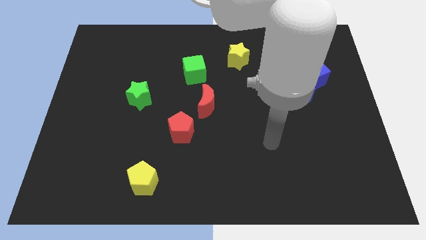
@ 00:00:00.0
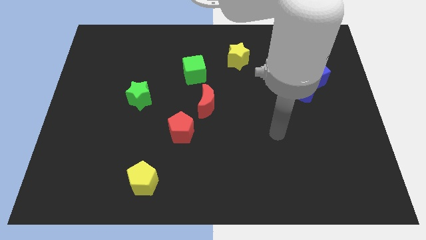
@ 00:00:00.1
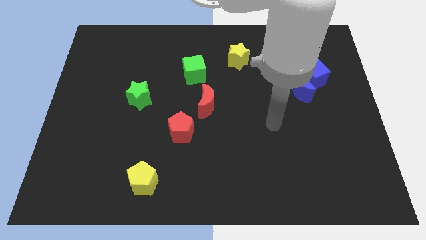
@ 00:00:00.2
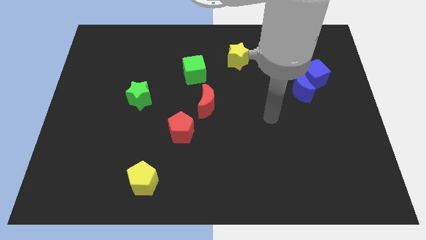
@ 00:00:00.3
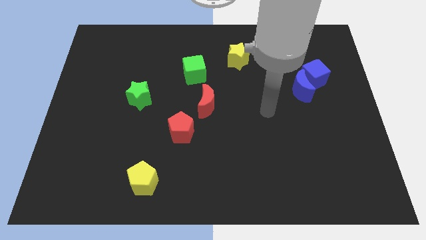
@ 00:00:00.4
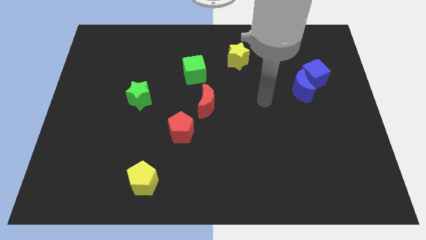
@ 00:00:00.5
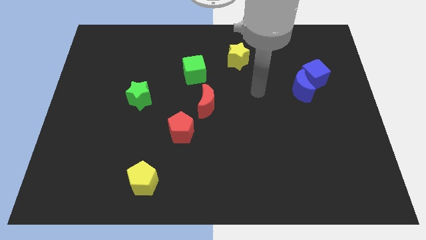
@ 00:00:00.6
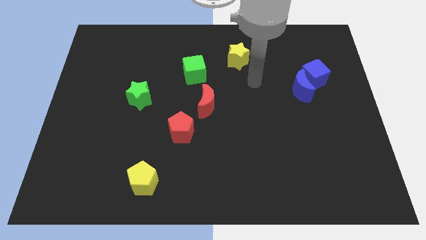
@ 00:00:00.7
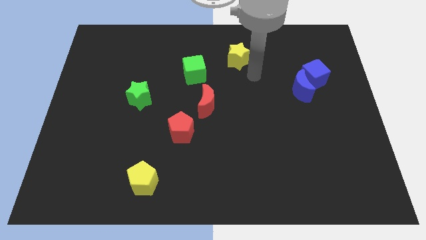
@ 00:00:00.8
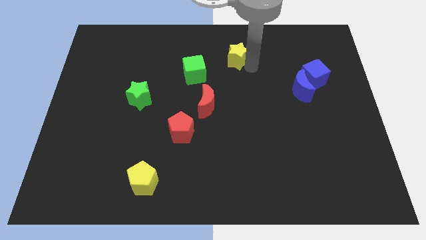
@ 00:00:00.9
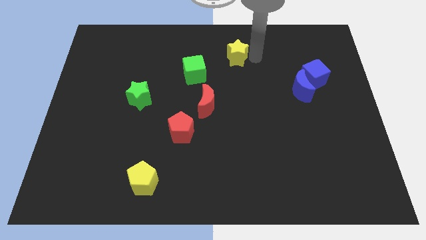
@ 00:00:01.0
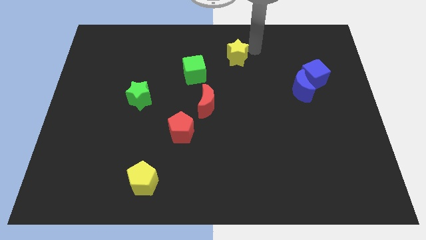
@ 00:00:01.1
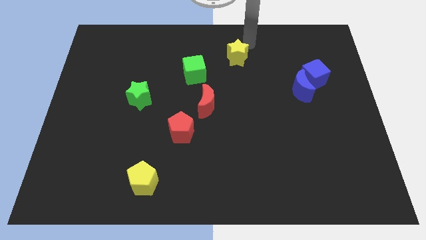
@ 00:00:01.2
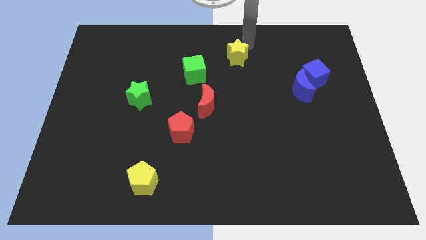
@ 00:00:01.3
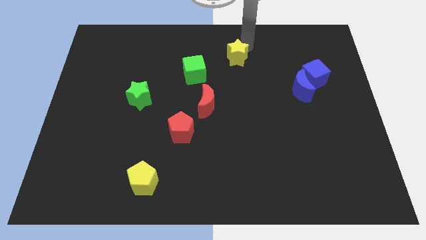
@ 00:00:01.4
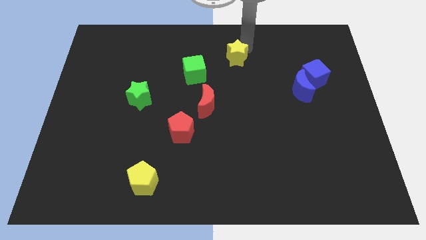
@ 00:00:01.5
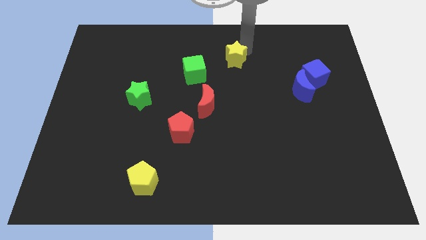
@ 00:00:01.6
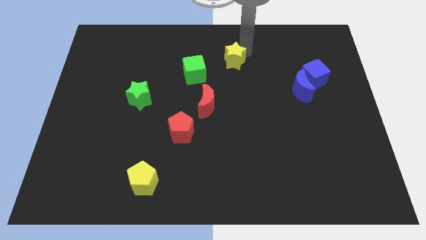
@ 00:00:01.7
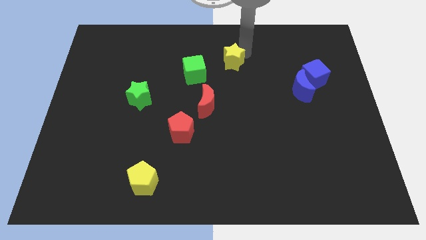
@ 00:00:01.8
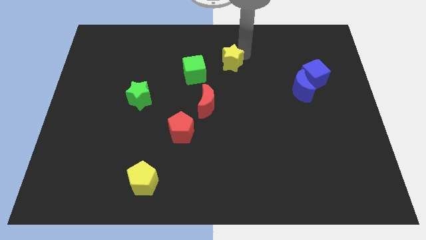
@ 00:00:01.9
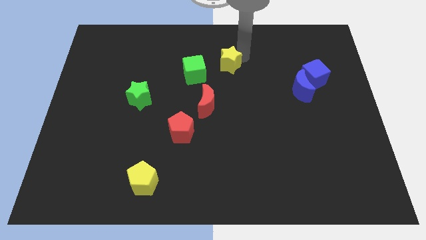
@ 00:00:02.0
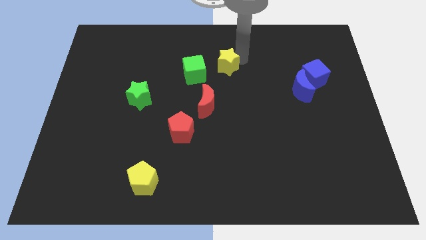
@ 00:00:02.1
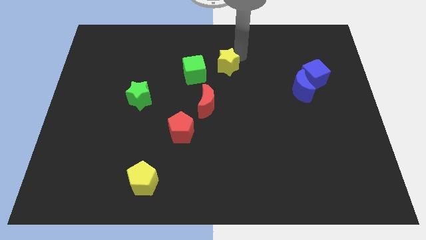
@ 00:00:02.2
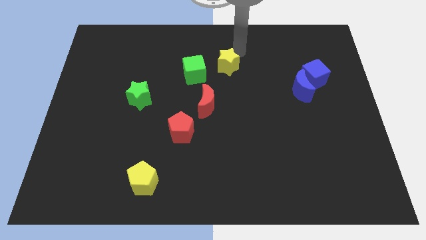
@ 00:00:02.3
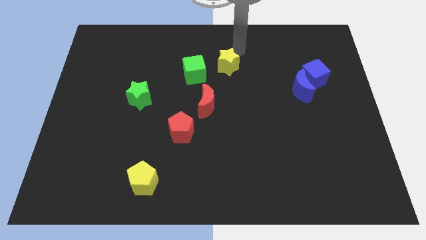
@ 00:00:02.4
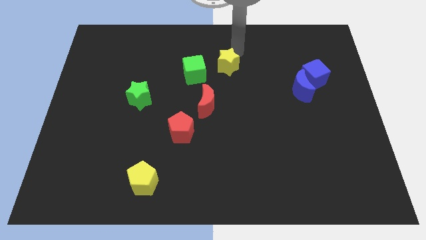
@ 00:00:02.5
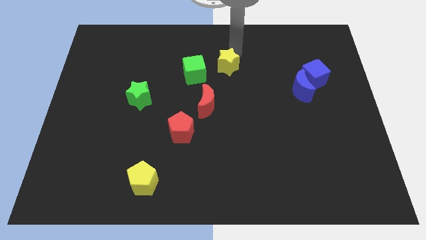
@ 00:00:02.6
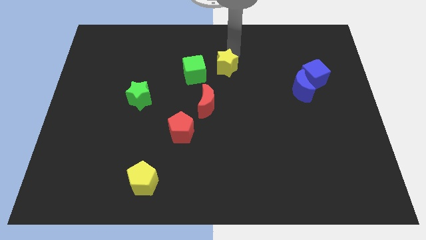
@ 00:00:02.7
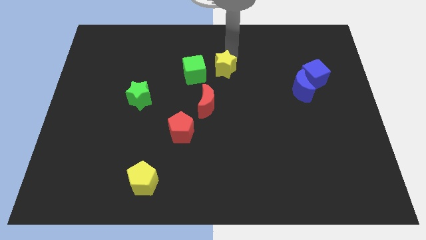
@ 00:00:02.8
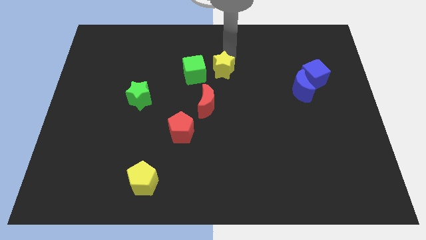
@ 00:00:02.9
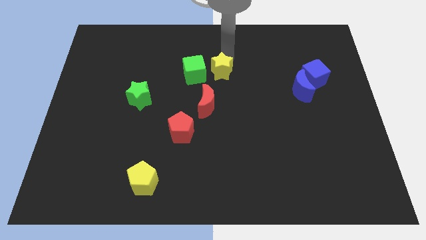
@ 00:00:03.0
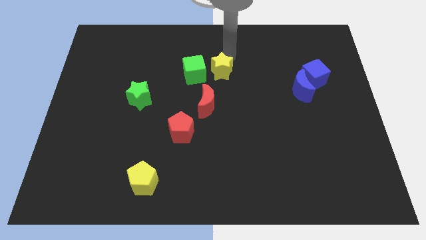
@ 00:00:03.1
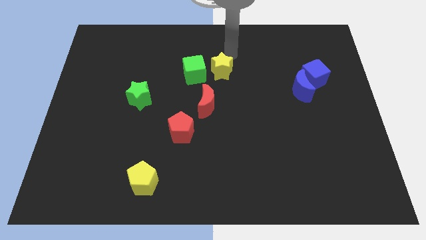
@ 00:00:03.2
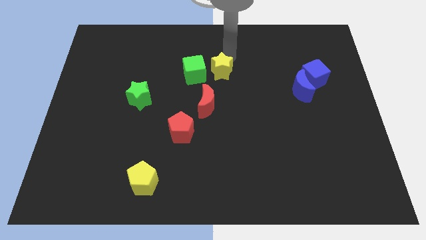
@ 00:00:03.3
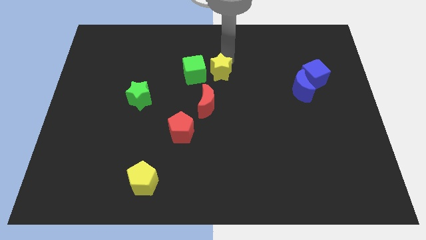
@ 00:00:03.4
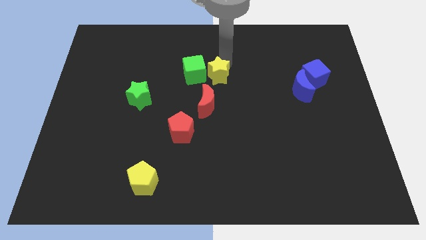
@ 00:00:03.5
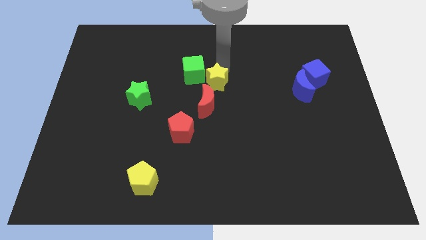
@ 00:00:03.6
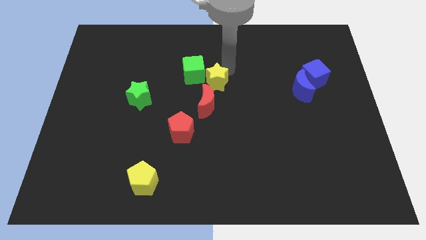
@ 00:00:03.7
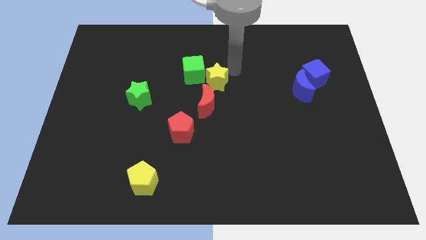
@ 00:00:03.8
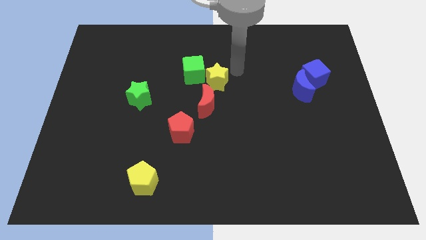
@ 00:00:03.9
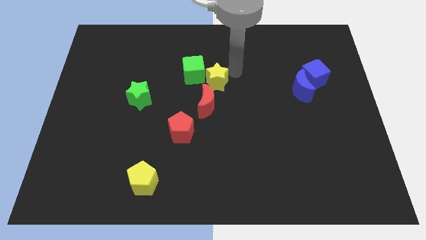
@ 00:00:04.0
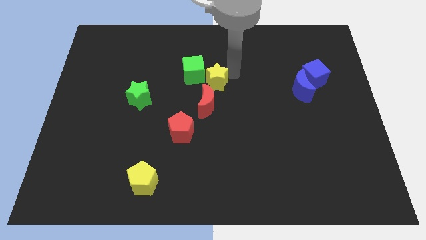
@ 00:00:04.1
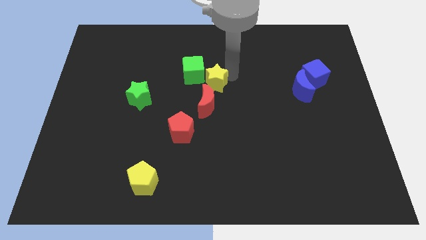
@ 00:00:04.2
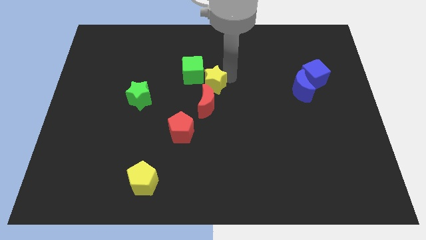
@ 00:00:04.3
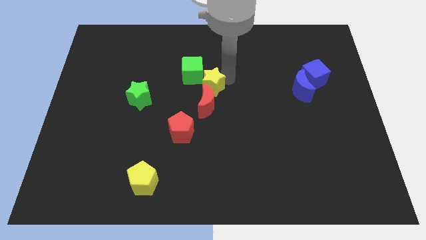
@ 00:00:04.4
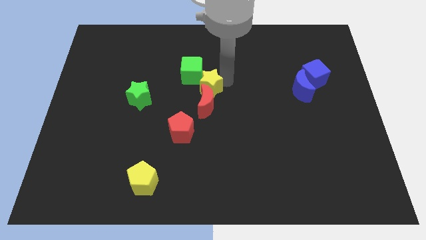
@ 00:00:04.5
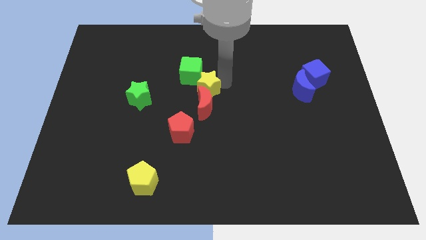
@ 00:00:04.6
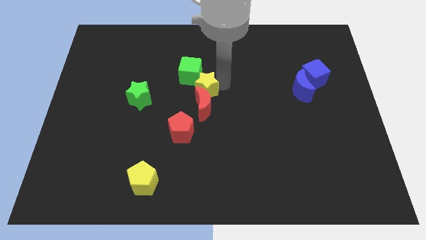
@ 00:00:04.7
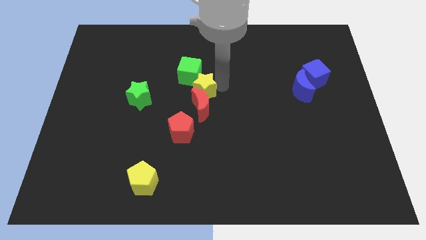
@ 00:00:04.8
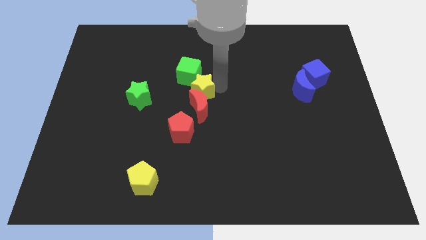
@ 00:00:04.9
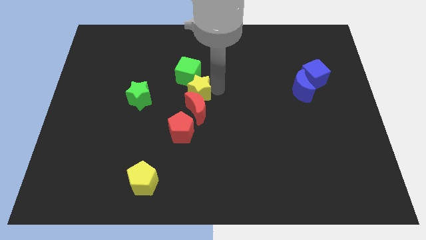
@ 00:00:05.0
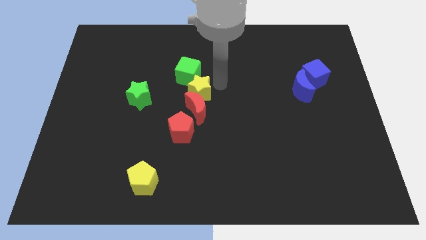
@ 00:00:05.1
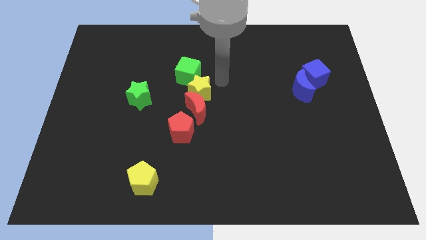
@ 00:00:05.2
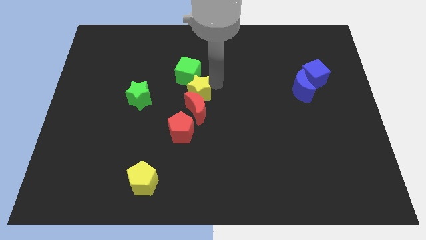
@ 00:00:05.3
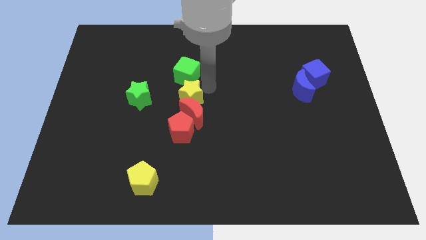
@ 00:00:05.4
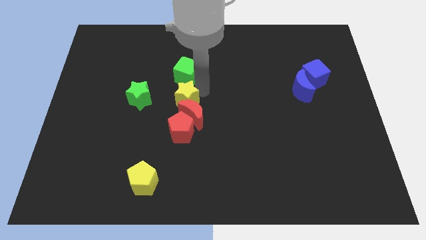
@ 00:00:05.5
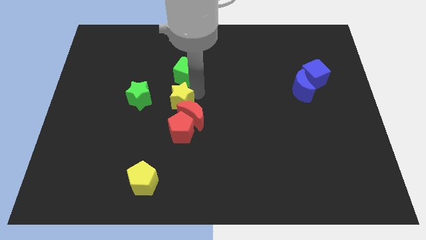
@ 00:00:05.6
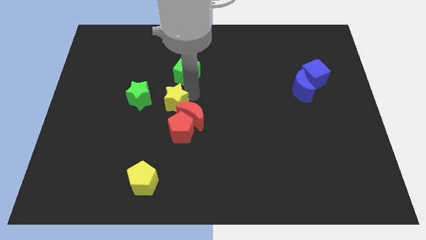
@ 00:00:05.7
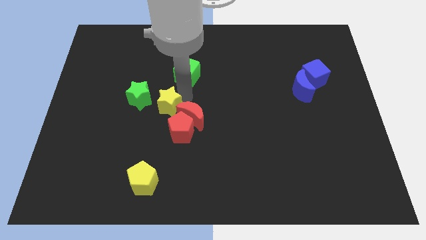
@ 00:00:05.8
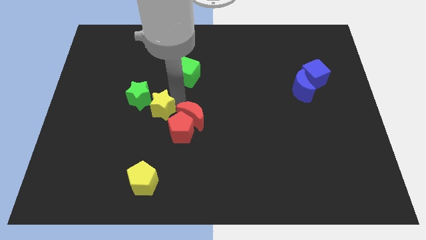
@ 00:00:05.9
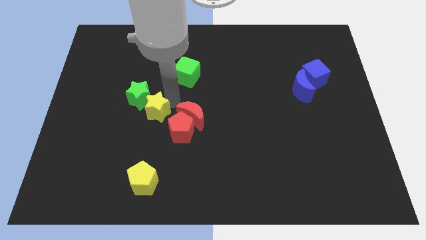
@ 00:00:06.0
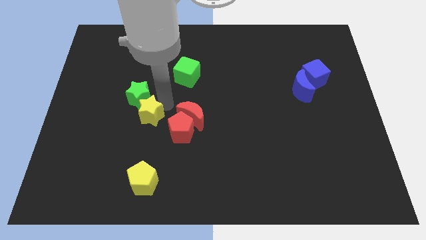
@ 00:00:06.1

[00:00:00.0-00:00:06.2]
put the yellow star to the left of the red pentagon

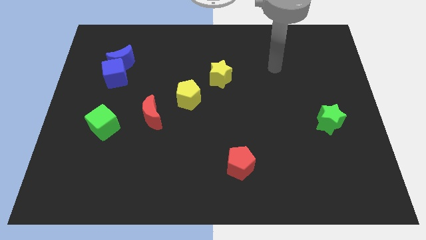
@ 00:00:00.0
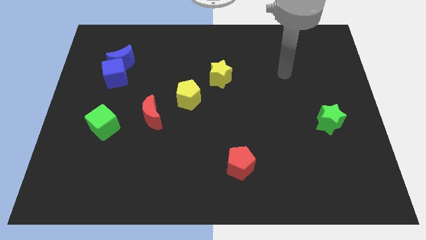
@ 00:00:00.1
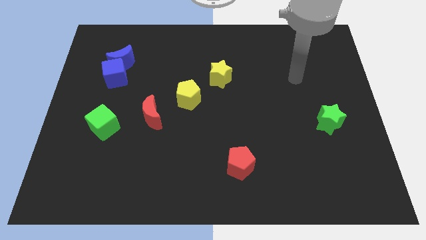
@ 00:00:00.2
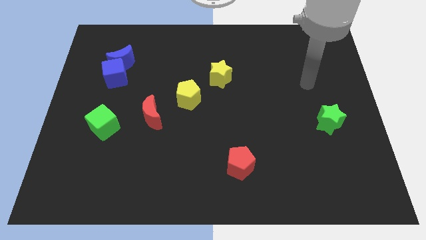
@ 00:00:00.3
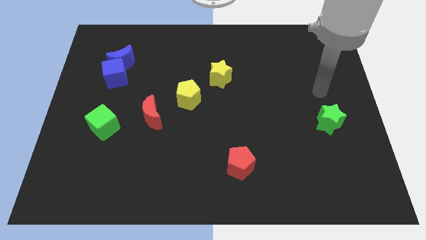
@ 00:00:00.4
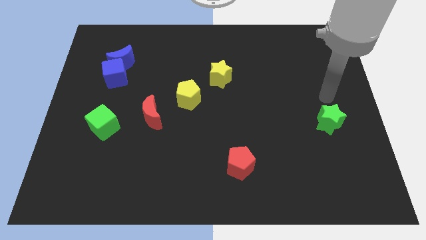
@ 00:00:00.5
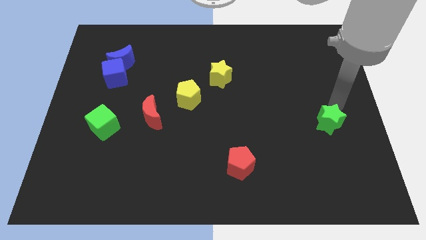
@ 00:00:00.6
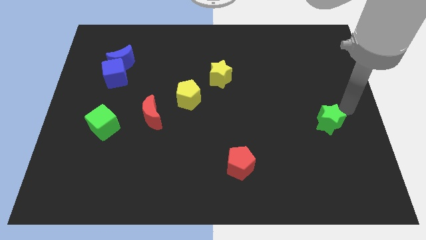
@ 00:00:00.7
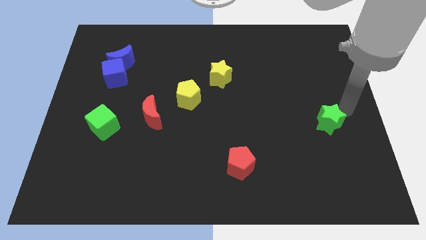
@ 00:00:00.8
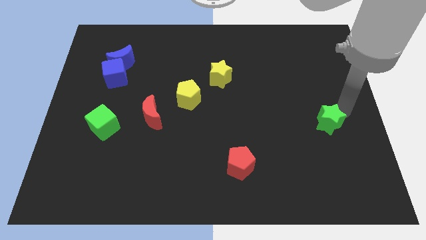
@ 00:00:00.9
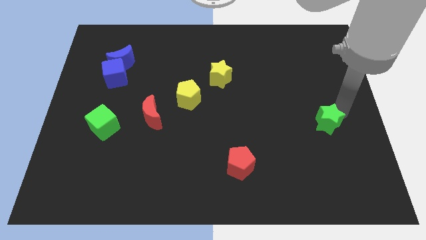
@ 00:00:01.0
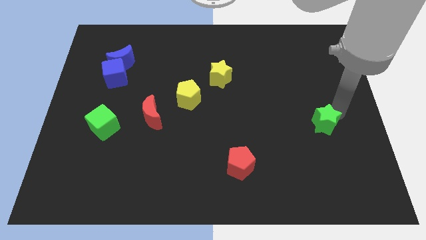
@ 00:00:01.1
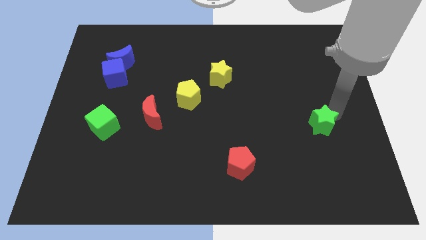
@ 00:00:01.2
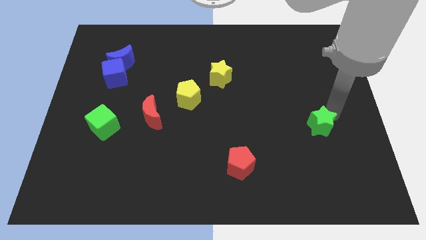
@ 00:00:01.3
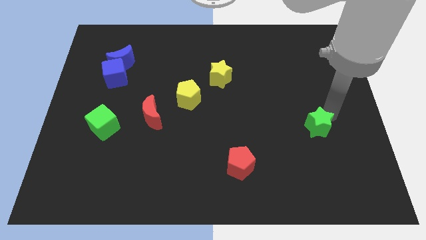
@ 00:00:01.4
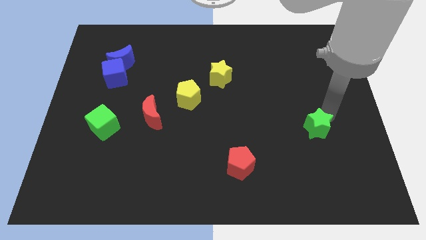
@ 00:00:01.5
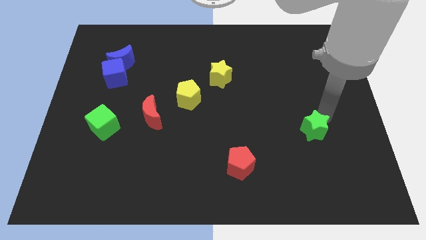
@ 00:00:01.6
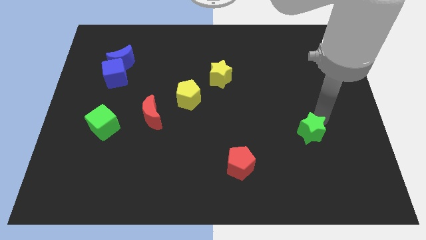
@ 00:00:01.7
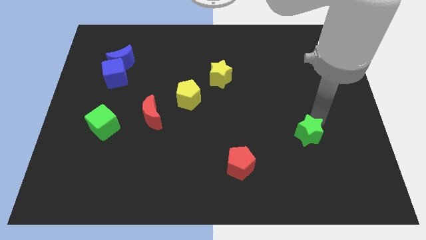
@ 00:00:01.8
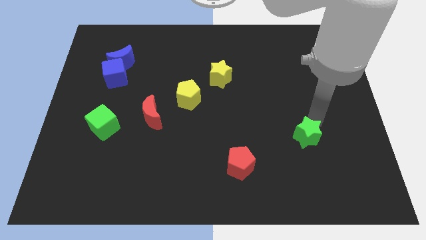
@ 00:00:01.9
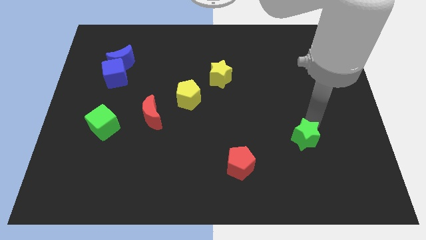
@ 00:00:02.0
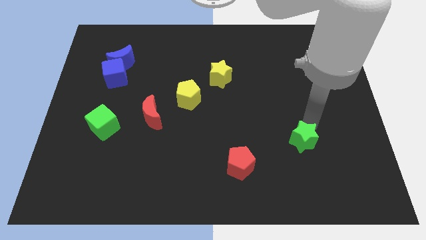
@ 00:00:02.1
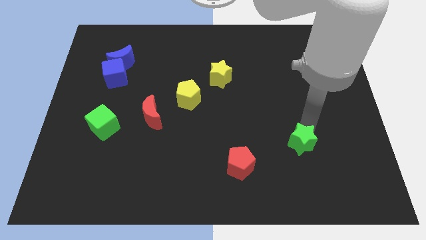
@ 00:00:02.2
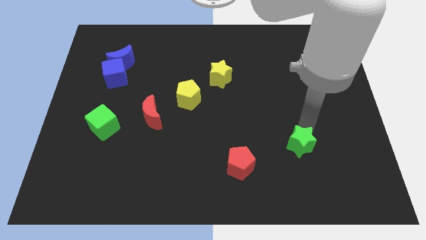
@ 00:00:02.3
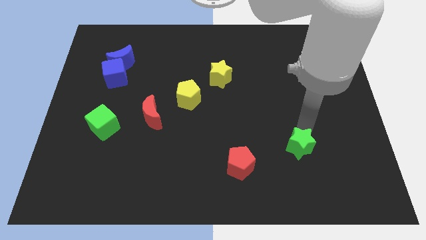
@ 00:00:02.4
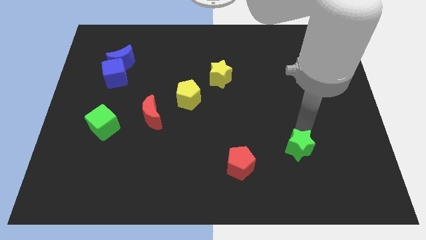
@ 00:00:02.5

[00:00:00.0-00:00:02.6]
put the green star to the right side of the red pentagon
